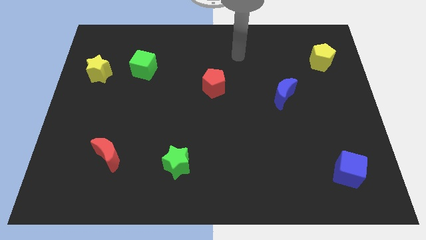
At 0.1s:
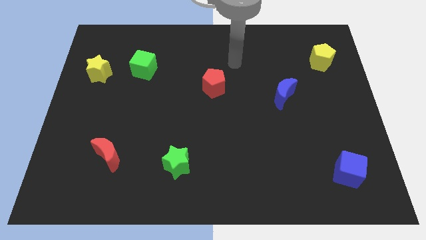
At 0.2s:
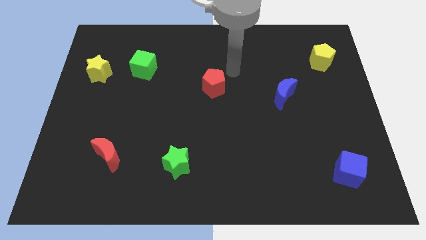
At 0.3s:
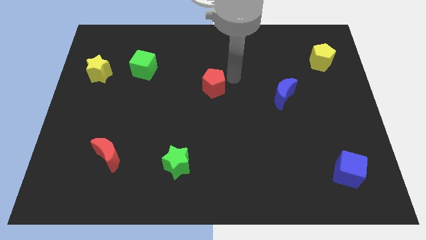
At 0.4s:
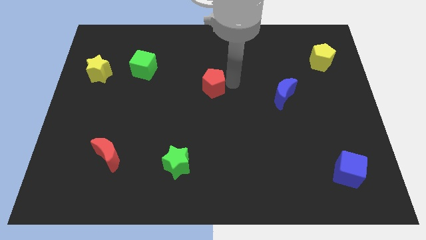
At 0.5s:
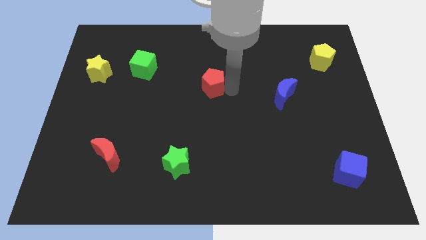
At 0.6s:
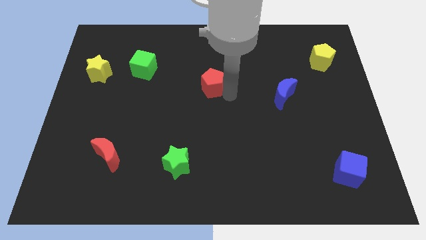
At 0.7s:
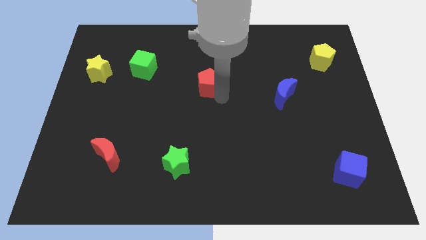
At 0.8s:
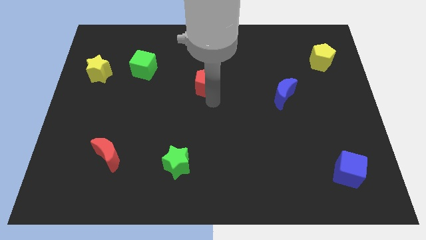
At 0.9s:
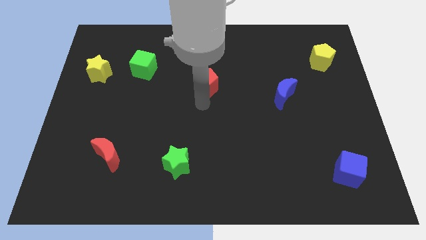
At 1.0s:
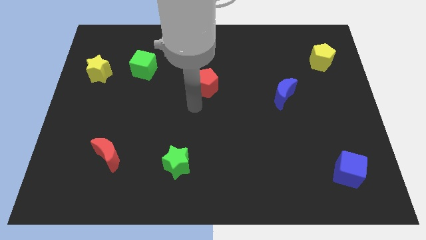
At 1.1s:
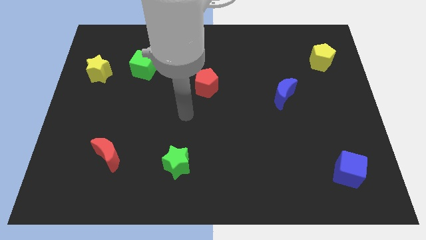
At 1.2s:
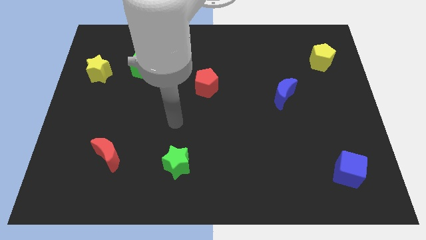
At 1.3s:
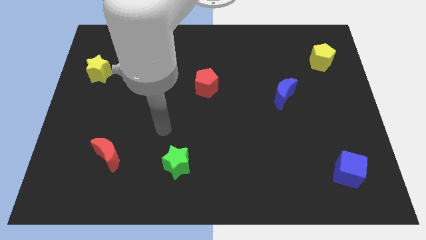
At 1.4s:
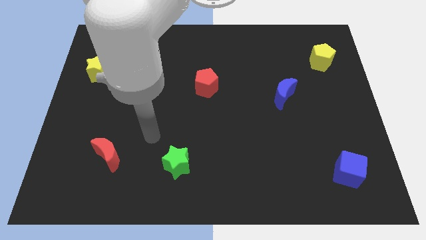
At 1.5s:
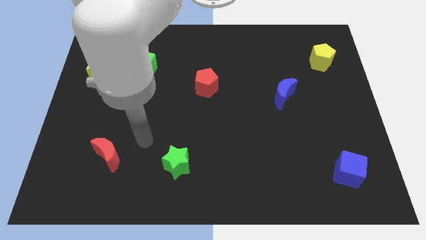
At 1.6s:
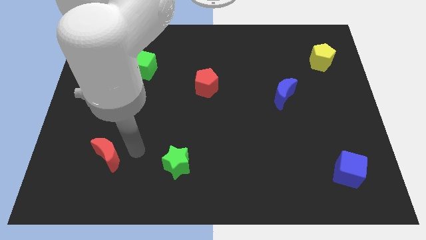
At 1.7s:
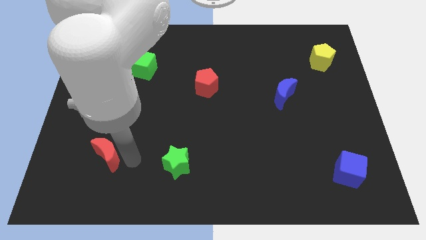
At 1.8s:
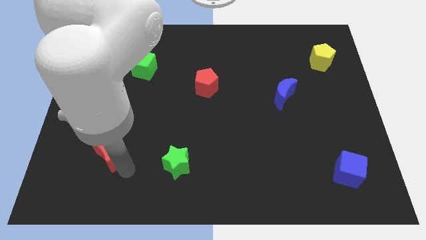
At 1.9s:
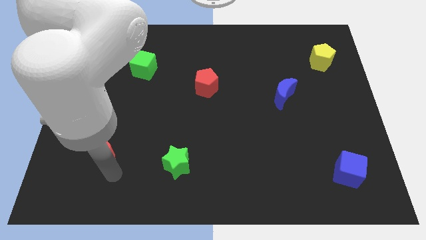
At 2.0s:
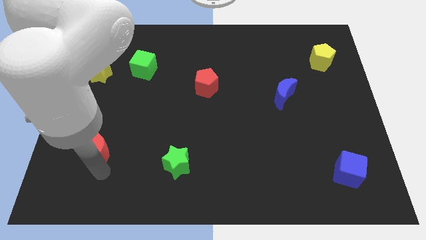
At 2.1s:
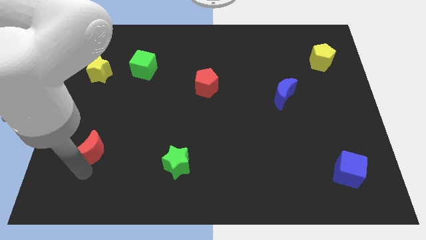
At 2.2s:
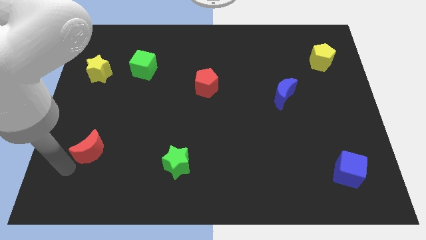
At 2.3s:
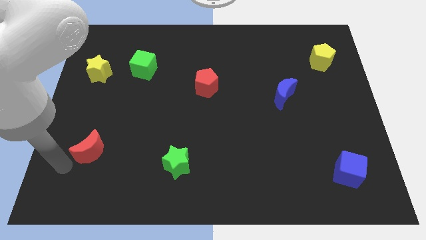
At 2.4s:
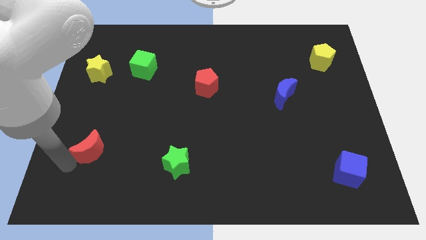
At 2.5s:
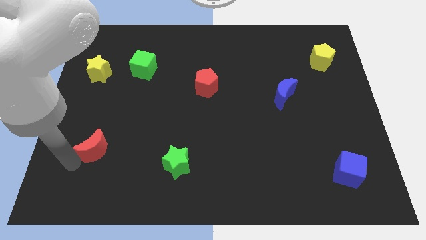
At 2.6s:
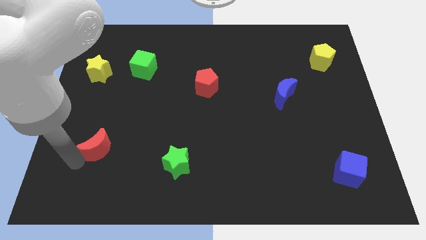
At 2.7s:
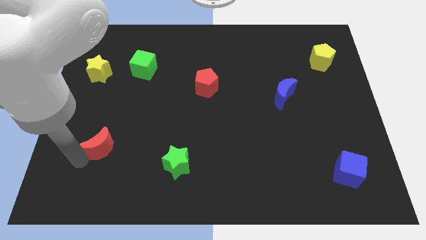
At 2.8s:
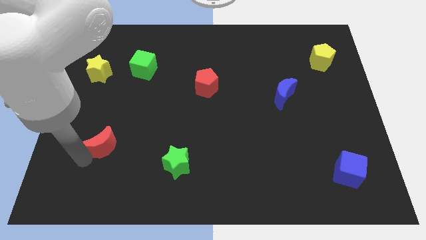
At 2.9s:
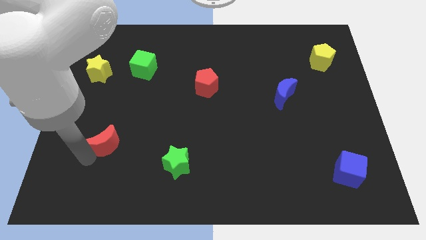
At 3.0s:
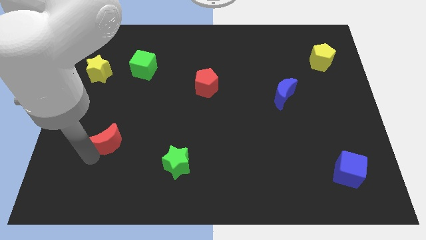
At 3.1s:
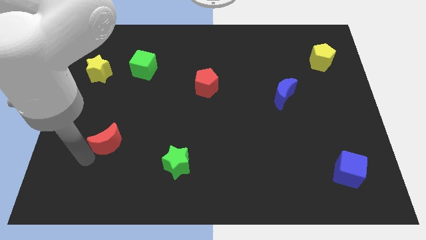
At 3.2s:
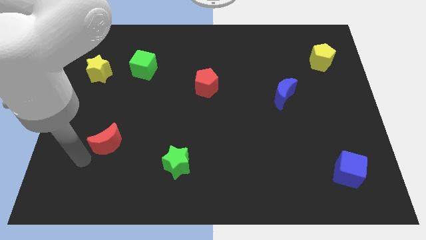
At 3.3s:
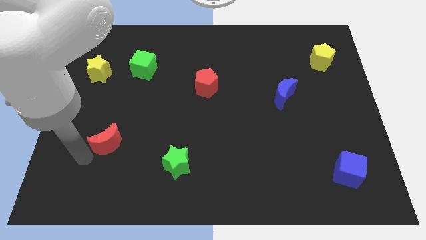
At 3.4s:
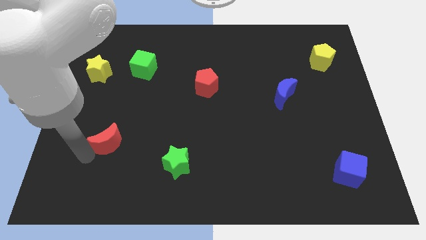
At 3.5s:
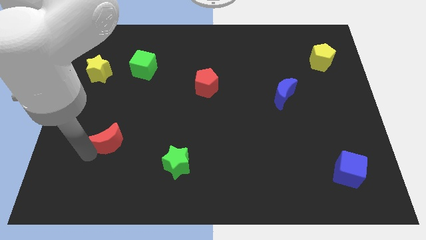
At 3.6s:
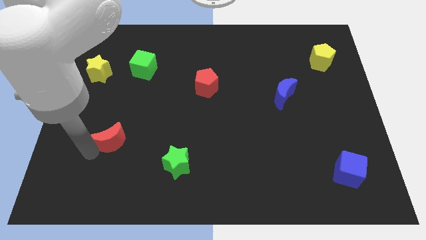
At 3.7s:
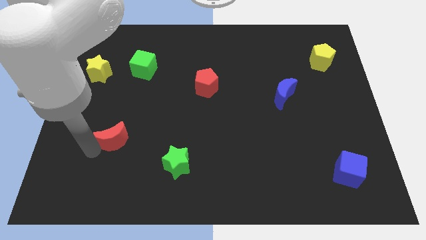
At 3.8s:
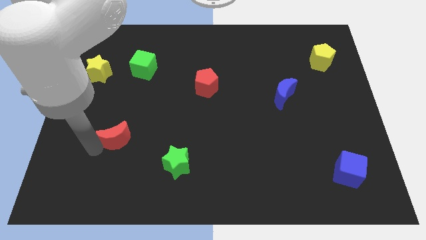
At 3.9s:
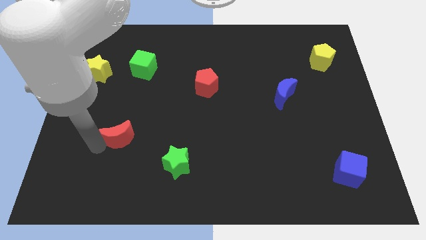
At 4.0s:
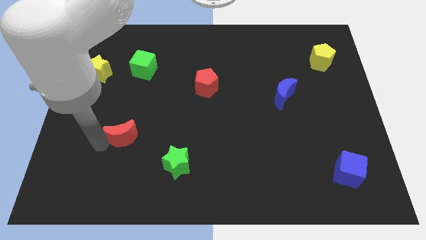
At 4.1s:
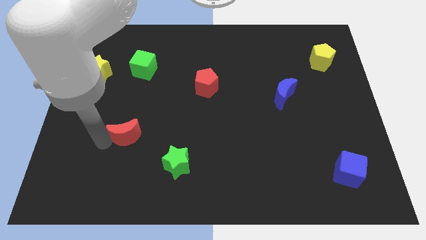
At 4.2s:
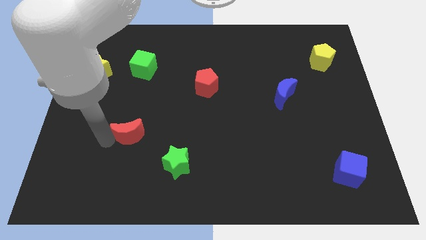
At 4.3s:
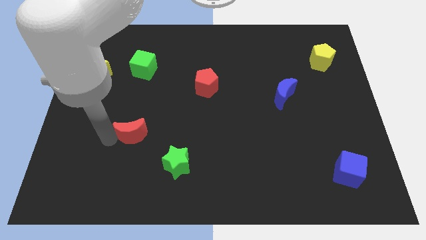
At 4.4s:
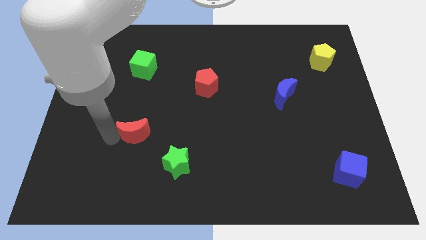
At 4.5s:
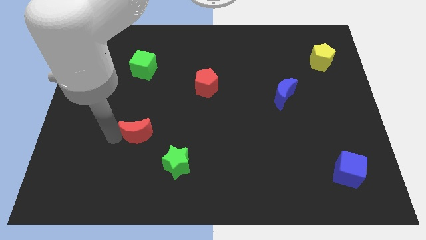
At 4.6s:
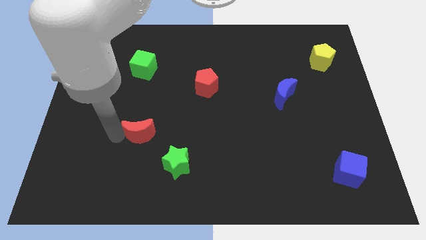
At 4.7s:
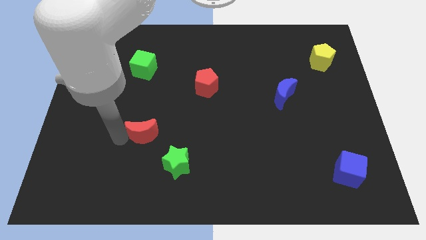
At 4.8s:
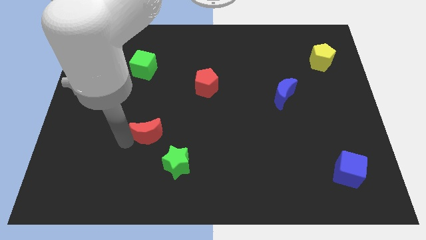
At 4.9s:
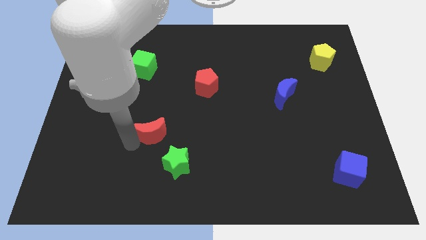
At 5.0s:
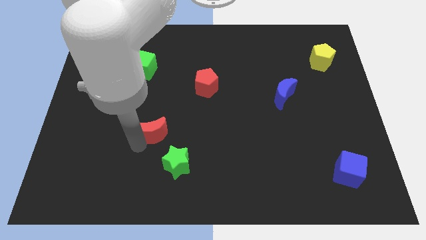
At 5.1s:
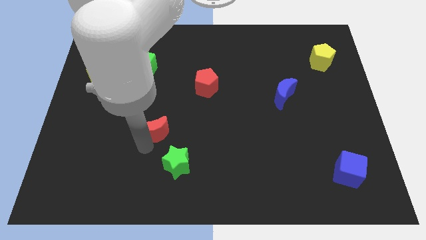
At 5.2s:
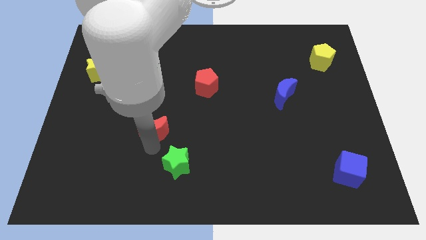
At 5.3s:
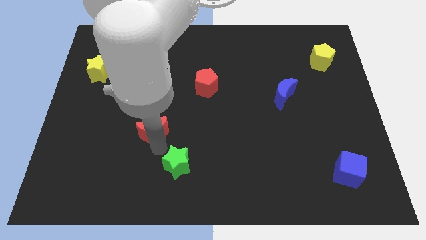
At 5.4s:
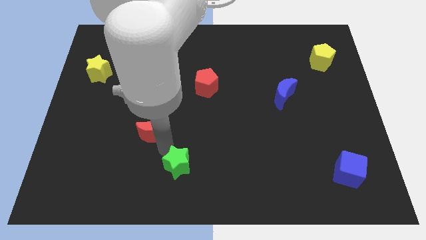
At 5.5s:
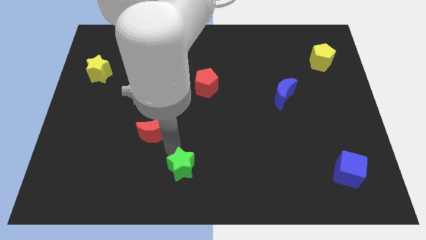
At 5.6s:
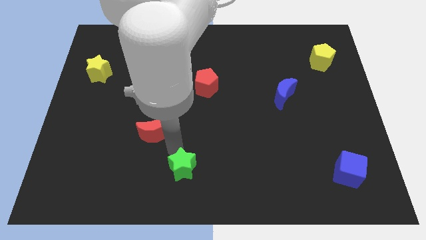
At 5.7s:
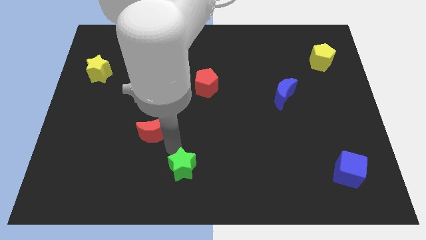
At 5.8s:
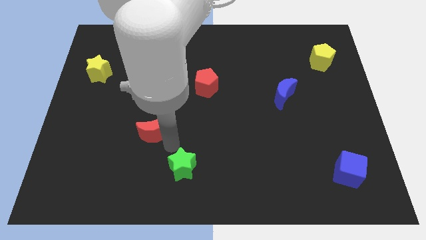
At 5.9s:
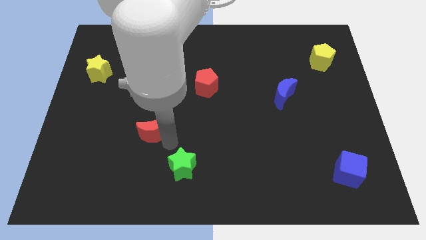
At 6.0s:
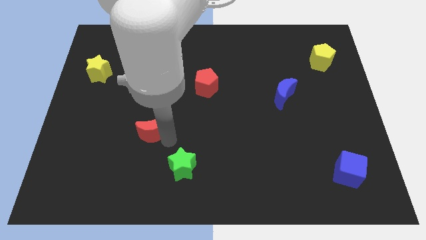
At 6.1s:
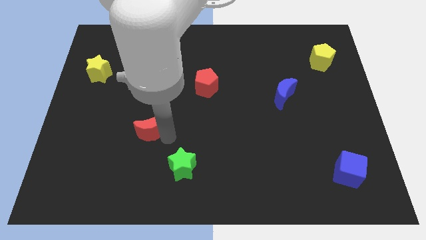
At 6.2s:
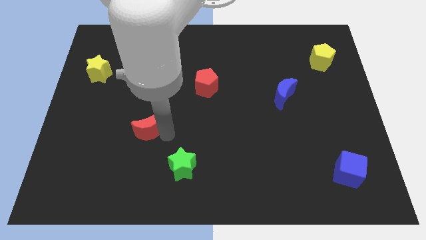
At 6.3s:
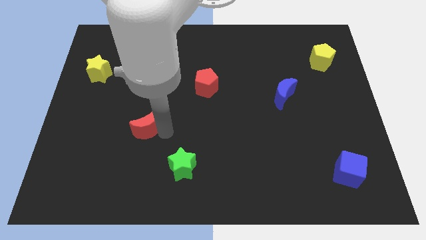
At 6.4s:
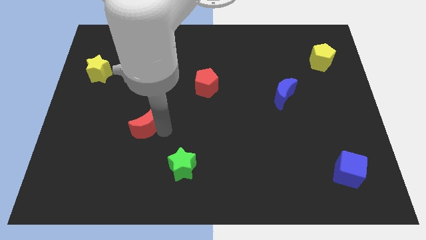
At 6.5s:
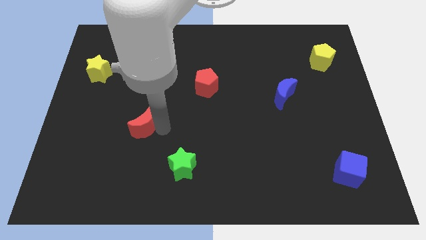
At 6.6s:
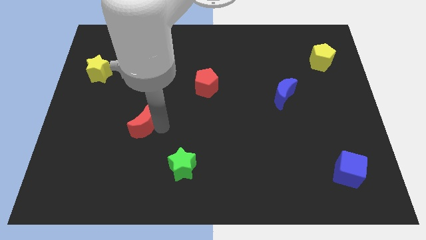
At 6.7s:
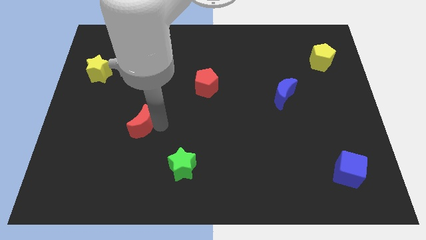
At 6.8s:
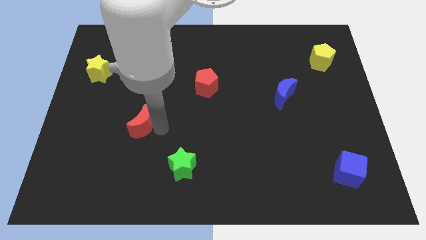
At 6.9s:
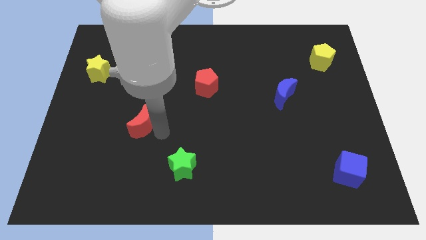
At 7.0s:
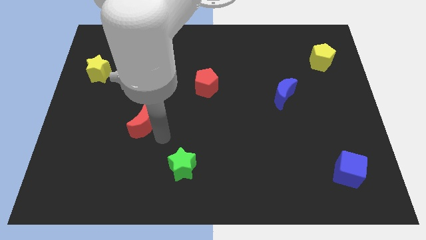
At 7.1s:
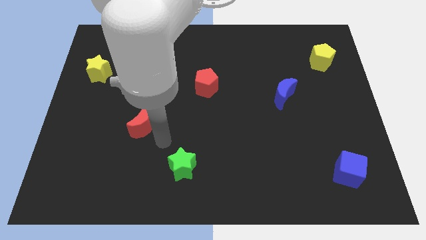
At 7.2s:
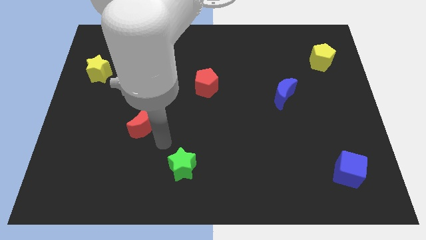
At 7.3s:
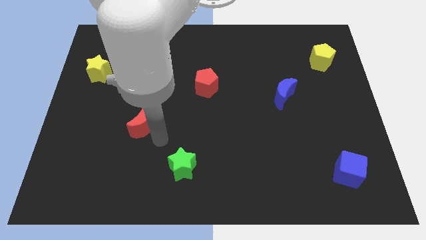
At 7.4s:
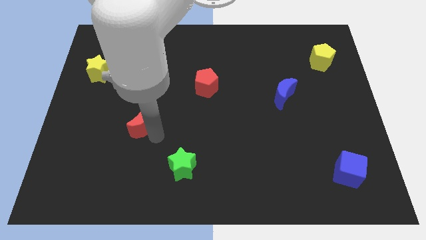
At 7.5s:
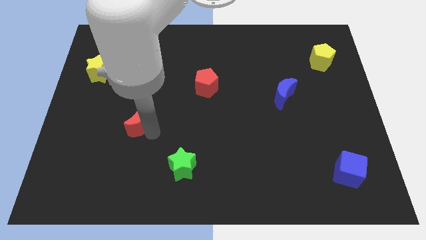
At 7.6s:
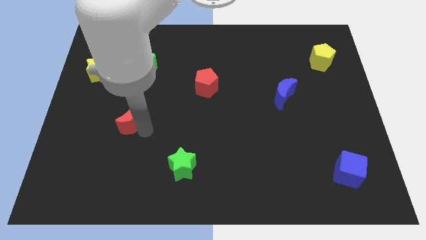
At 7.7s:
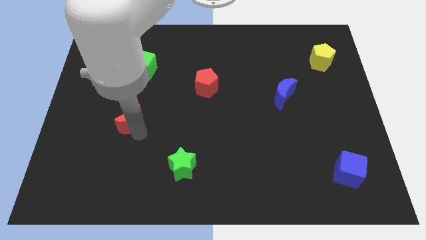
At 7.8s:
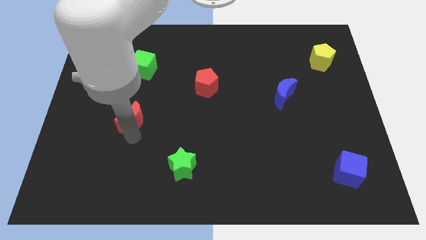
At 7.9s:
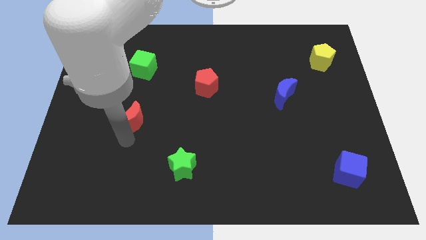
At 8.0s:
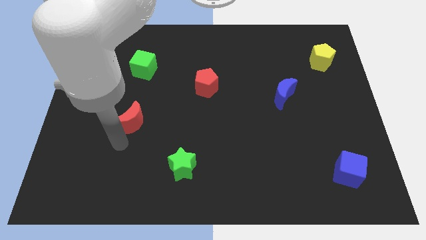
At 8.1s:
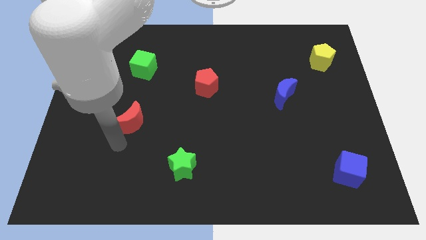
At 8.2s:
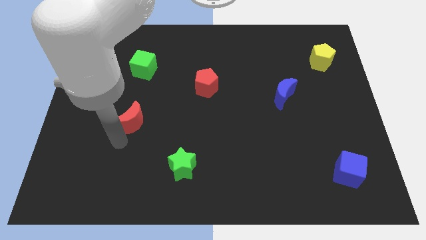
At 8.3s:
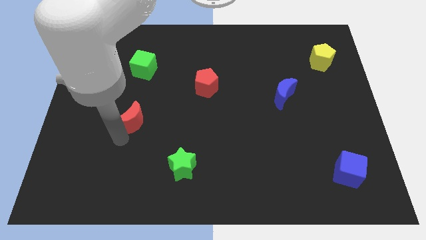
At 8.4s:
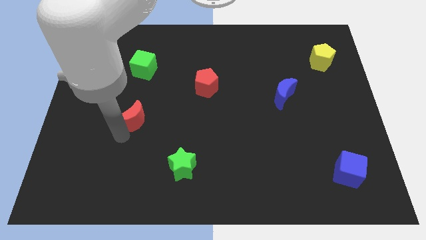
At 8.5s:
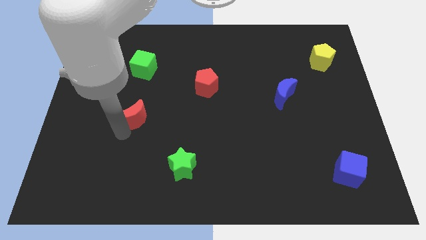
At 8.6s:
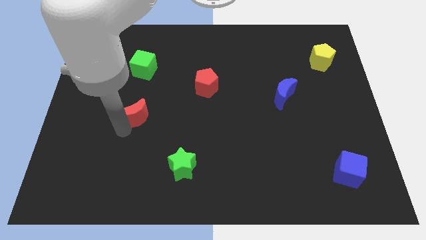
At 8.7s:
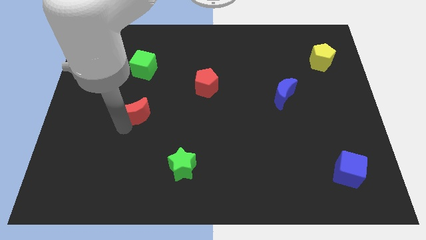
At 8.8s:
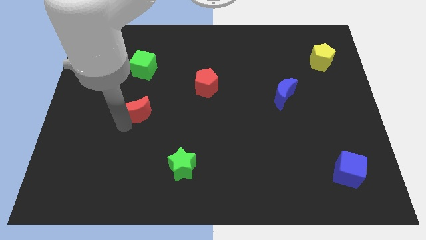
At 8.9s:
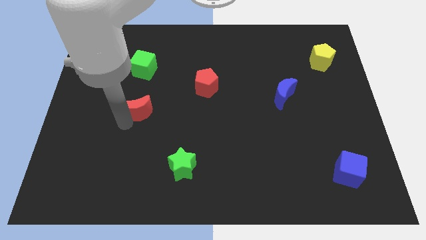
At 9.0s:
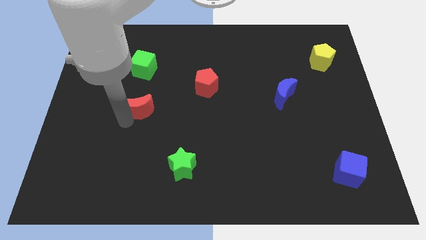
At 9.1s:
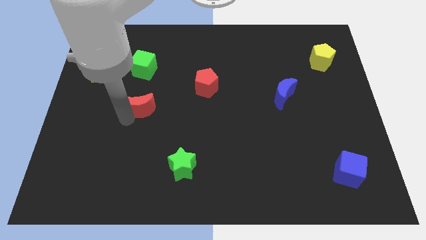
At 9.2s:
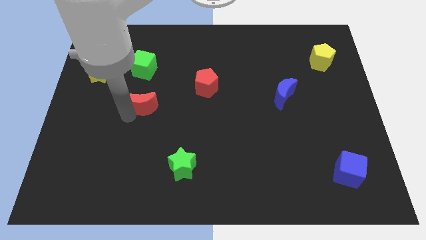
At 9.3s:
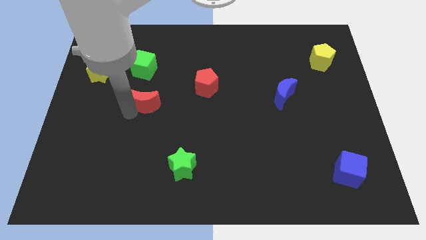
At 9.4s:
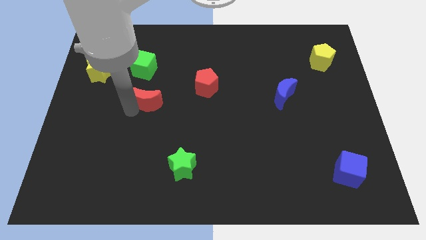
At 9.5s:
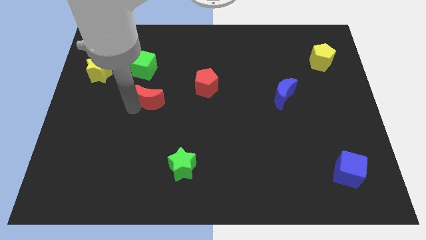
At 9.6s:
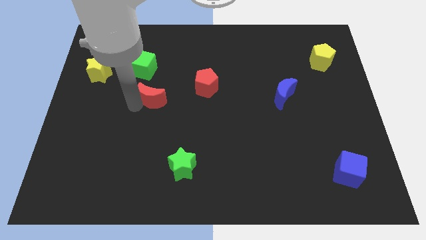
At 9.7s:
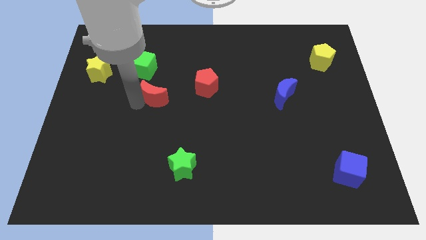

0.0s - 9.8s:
push the red moon to the bottom right side of the green cube
